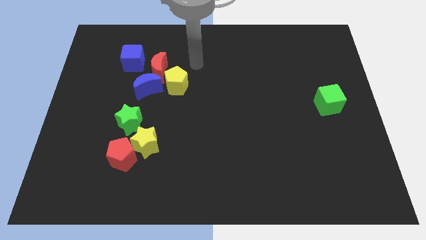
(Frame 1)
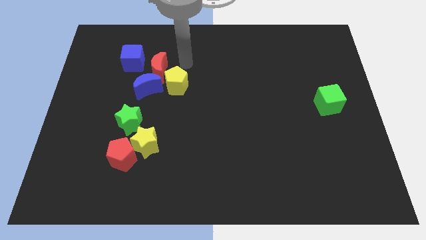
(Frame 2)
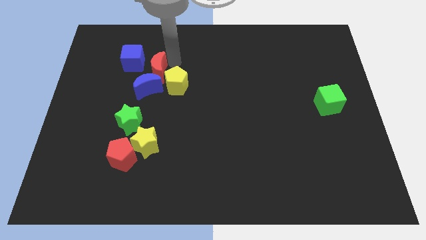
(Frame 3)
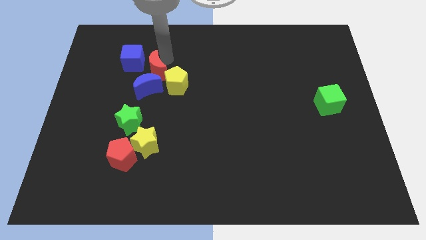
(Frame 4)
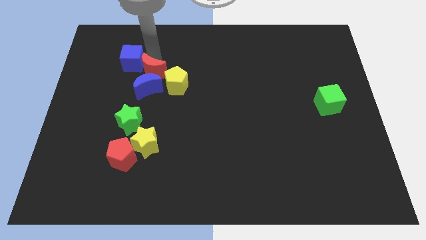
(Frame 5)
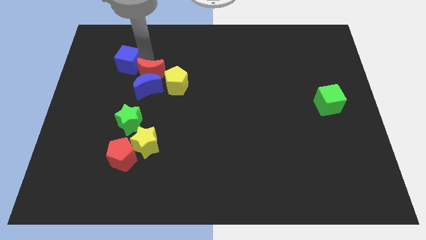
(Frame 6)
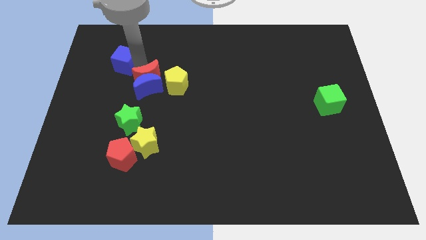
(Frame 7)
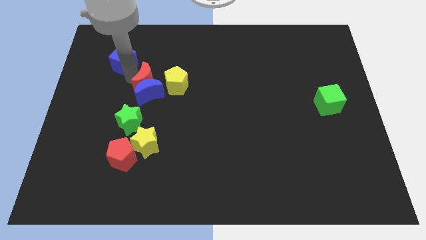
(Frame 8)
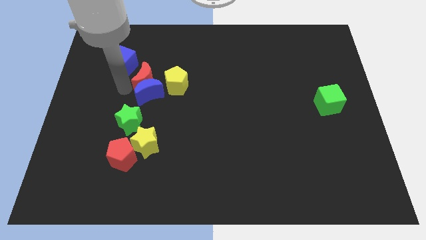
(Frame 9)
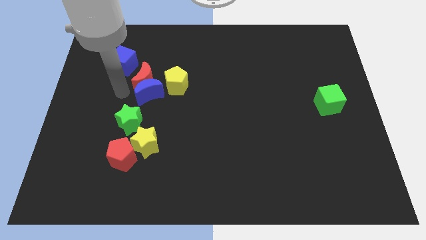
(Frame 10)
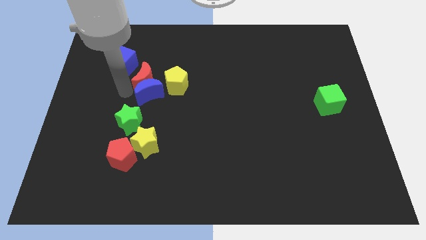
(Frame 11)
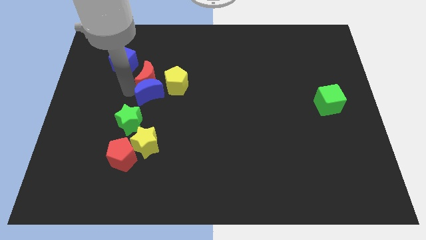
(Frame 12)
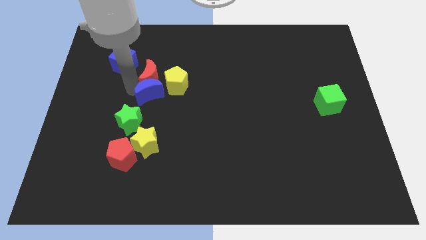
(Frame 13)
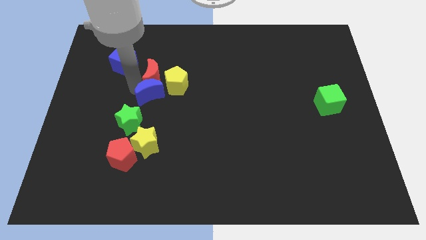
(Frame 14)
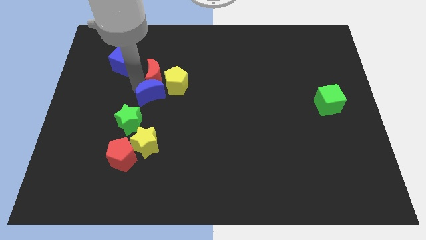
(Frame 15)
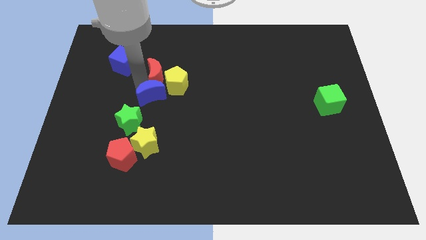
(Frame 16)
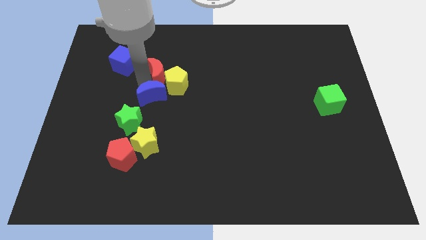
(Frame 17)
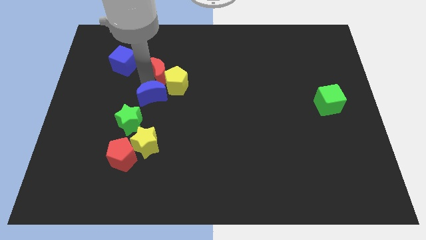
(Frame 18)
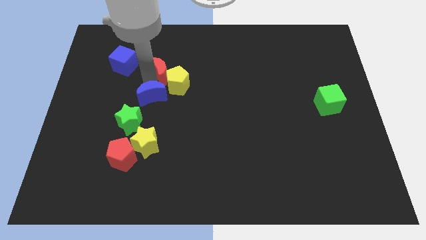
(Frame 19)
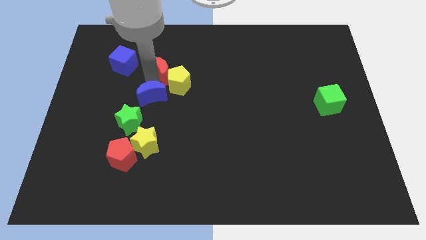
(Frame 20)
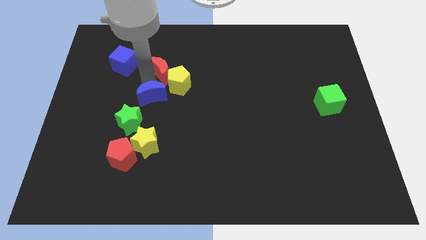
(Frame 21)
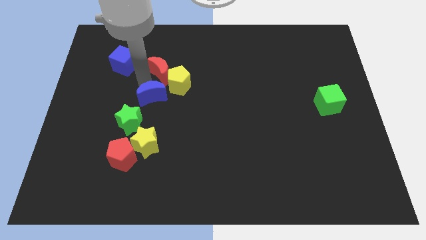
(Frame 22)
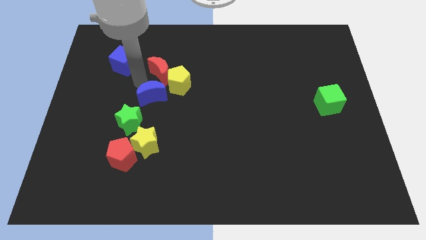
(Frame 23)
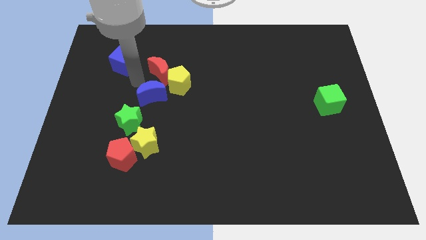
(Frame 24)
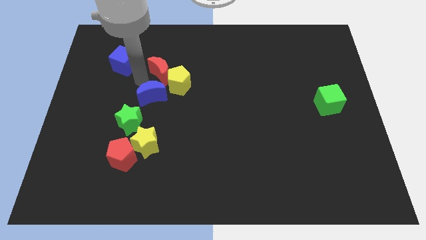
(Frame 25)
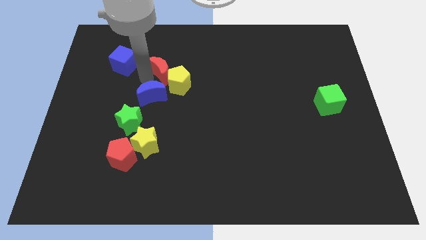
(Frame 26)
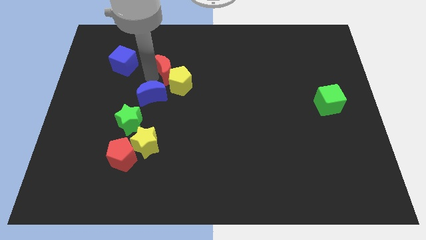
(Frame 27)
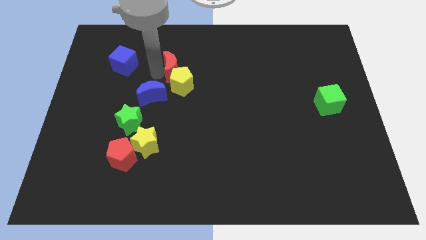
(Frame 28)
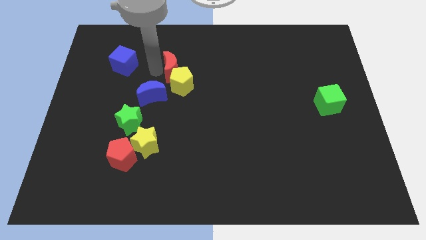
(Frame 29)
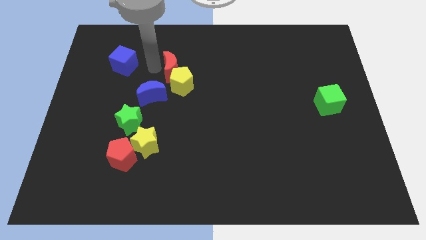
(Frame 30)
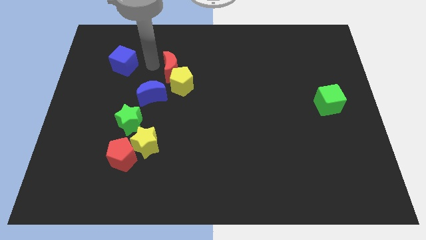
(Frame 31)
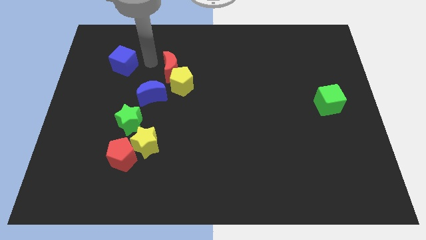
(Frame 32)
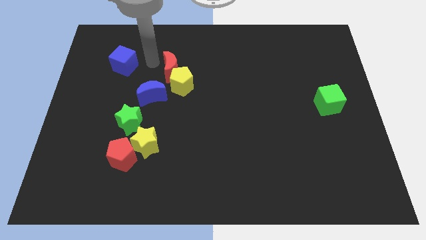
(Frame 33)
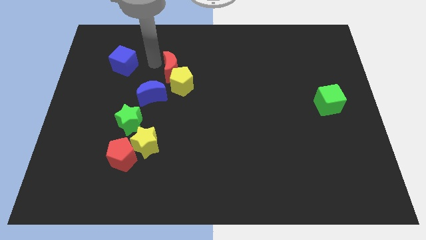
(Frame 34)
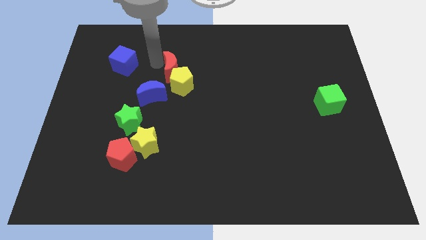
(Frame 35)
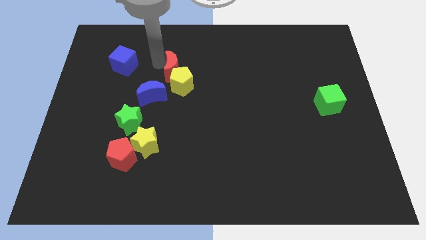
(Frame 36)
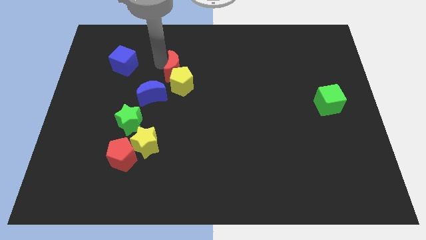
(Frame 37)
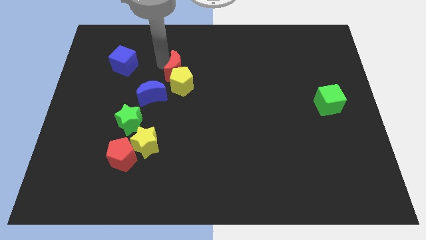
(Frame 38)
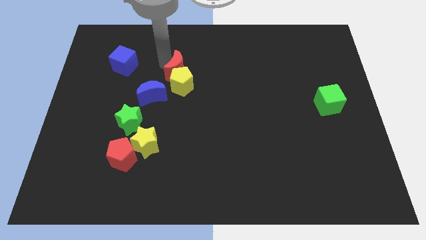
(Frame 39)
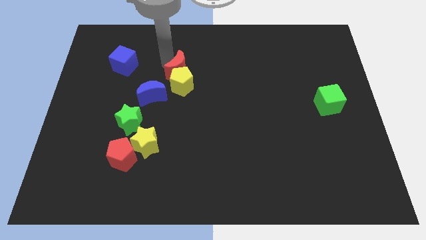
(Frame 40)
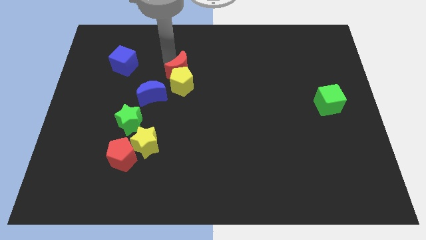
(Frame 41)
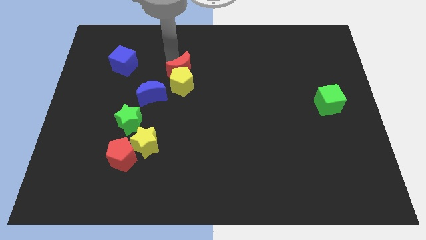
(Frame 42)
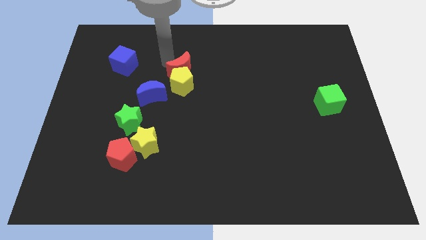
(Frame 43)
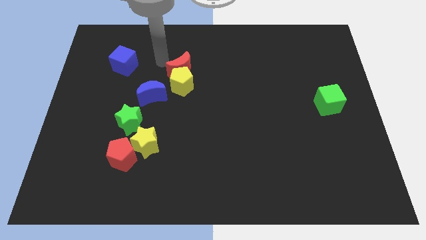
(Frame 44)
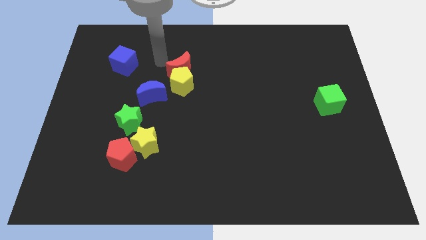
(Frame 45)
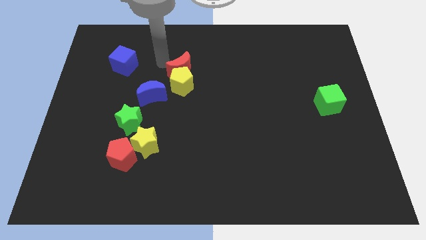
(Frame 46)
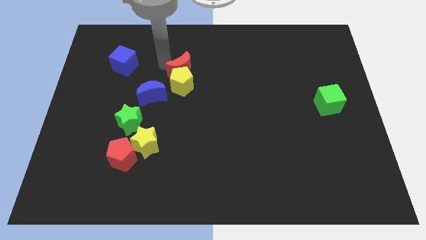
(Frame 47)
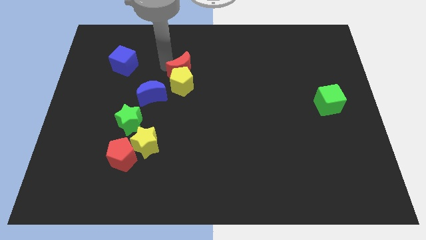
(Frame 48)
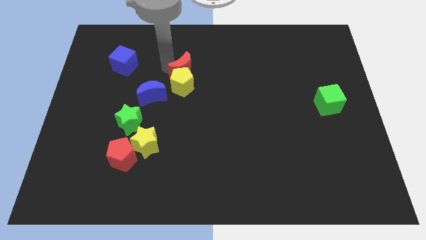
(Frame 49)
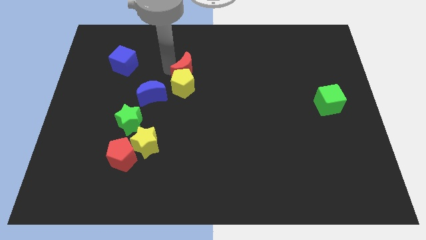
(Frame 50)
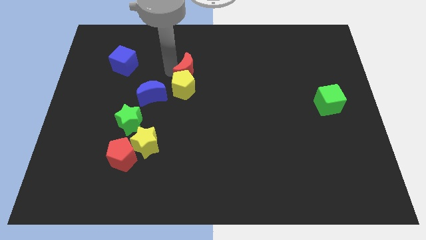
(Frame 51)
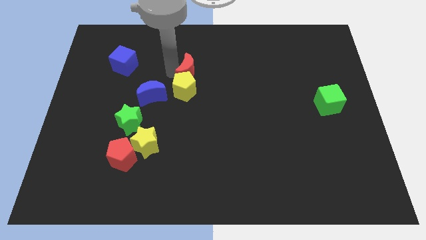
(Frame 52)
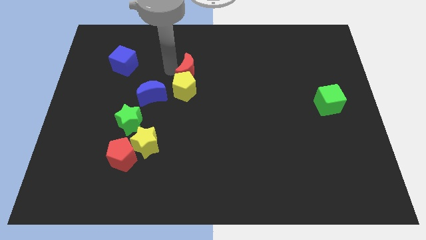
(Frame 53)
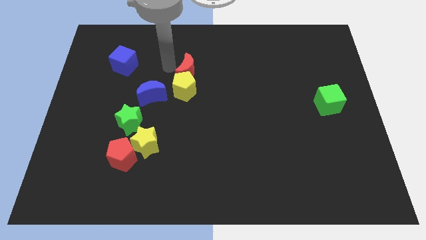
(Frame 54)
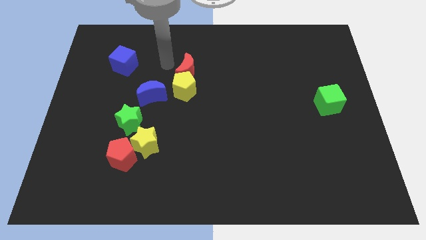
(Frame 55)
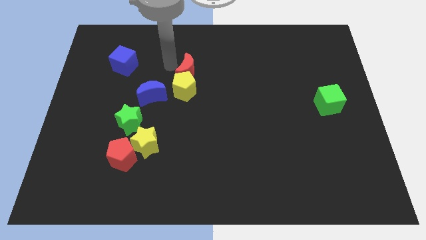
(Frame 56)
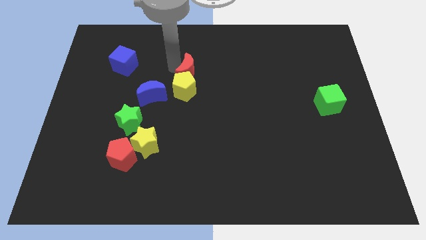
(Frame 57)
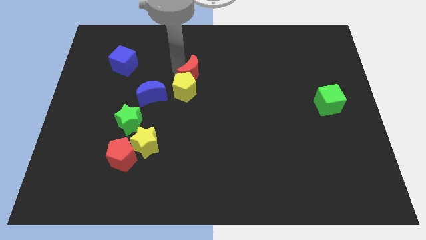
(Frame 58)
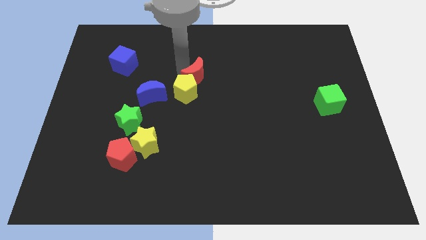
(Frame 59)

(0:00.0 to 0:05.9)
push the red moon downwards and to the right slightly

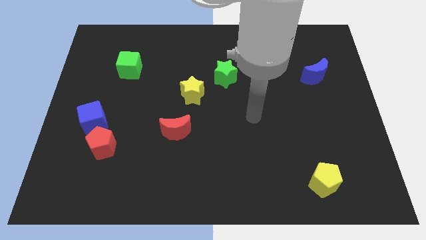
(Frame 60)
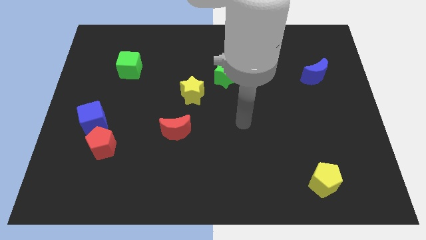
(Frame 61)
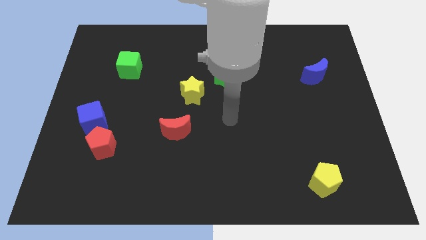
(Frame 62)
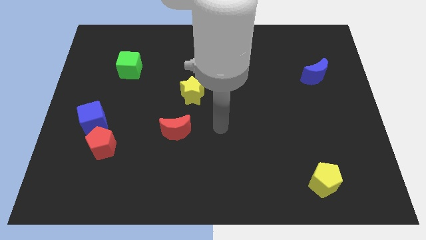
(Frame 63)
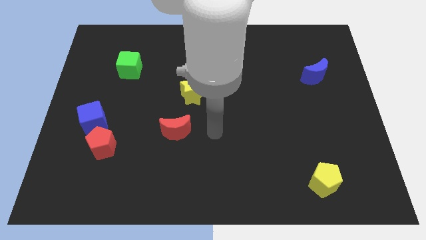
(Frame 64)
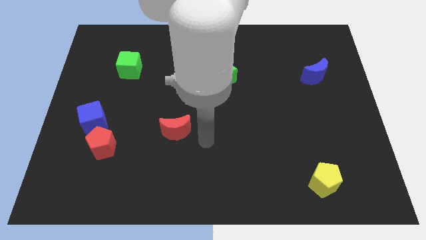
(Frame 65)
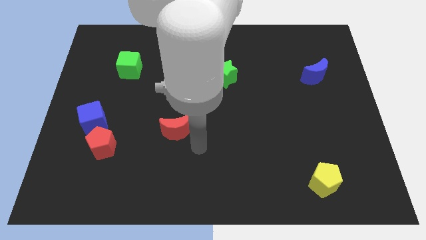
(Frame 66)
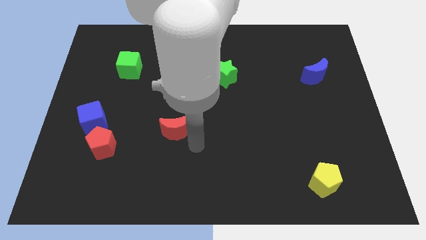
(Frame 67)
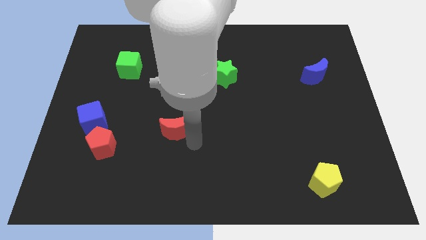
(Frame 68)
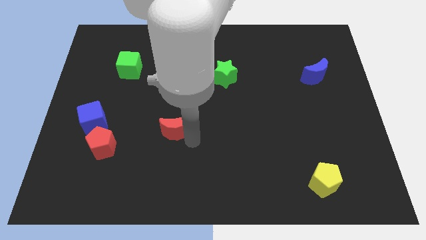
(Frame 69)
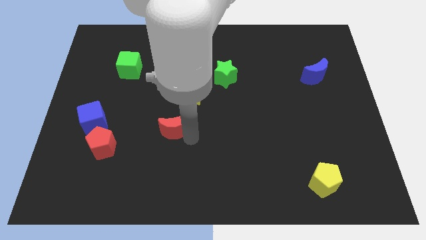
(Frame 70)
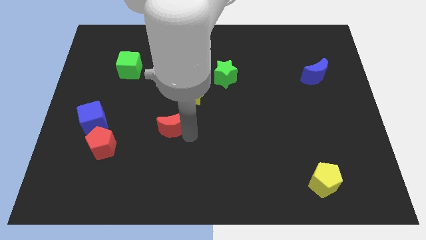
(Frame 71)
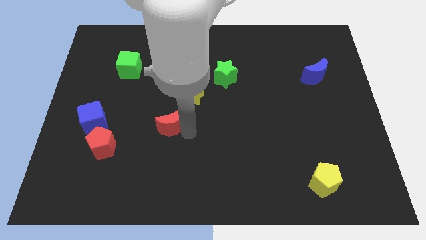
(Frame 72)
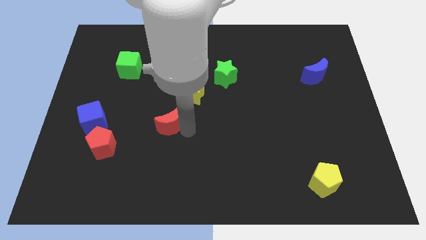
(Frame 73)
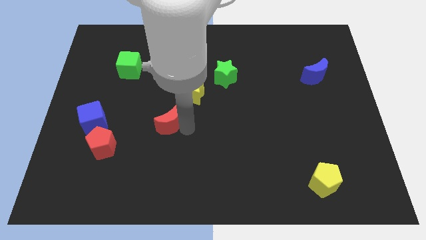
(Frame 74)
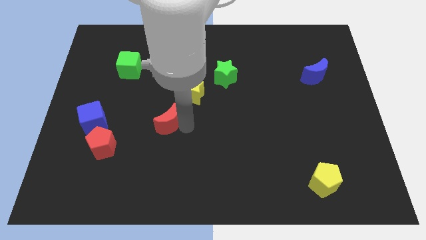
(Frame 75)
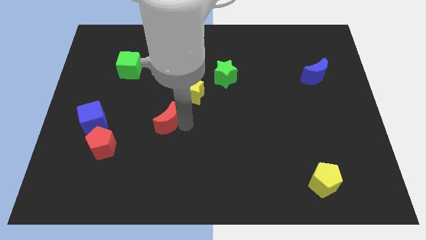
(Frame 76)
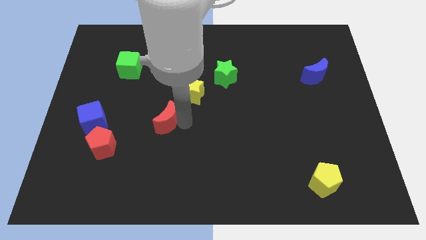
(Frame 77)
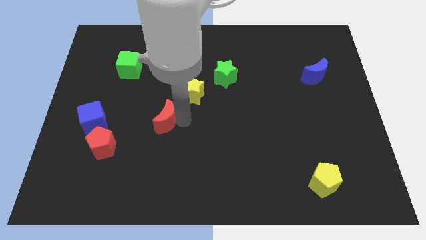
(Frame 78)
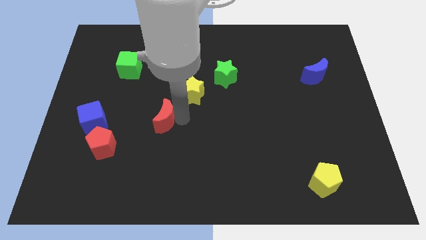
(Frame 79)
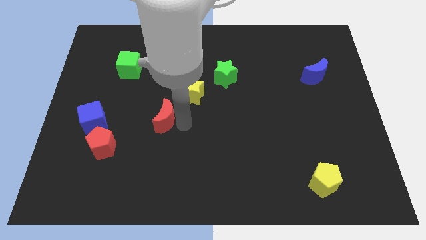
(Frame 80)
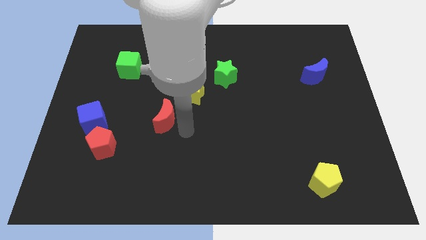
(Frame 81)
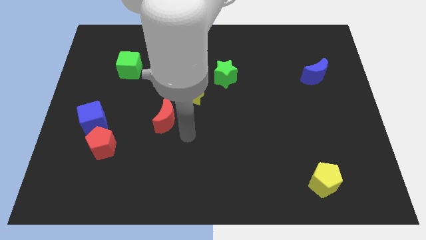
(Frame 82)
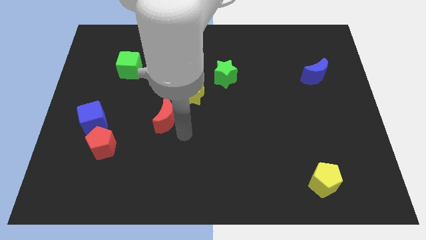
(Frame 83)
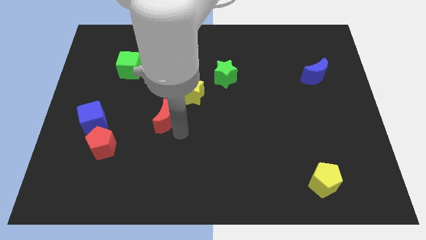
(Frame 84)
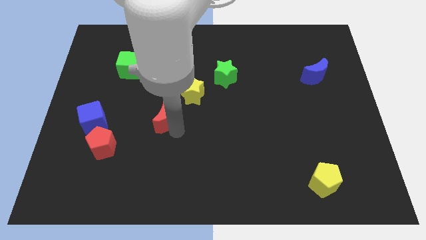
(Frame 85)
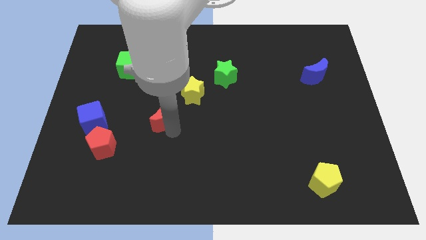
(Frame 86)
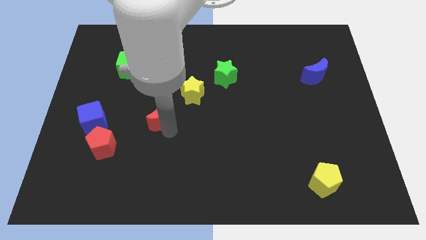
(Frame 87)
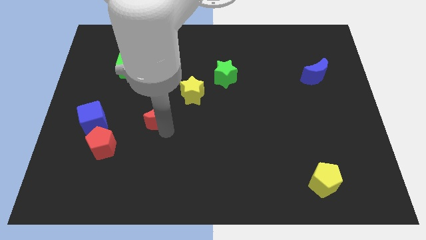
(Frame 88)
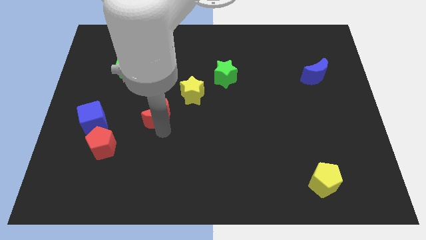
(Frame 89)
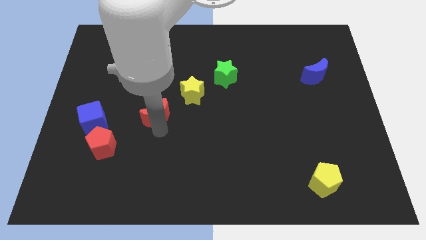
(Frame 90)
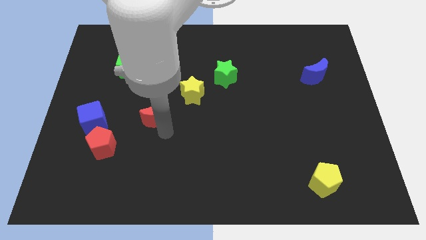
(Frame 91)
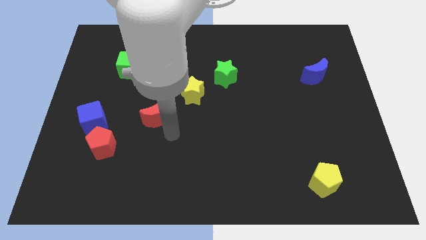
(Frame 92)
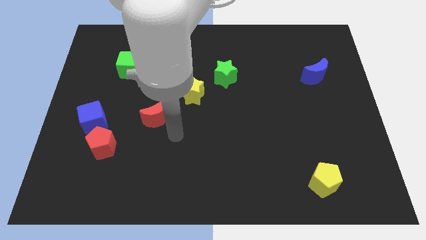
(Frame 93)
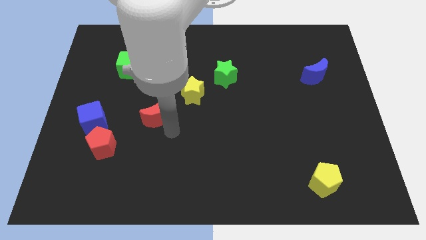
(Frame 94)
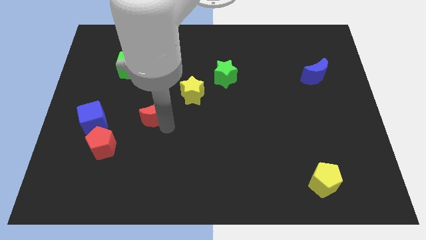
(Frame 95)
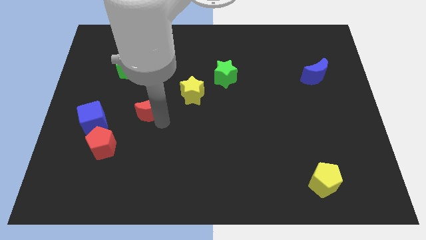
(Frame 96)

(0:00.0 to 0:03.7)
slightly move the red moon up and left
